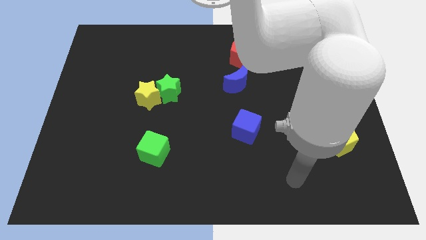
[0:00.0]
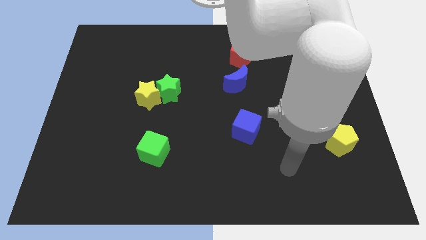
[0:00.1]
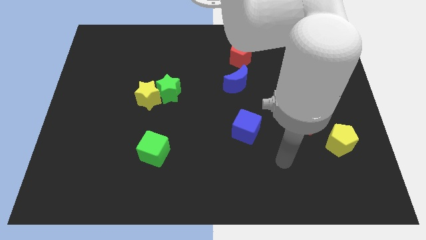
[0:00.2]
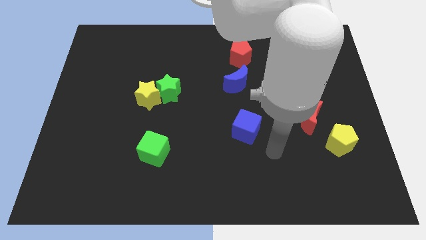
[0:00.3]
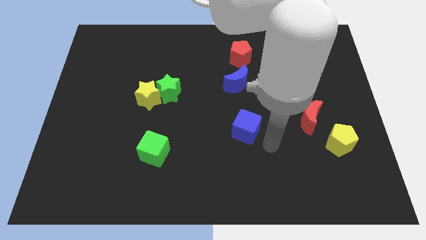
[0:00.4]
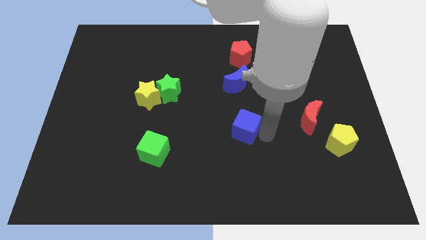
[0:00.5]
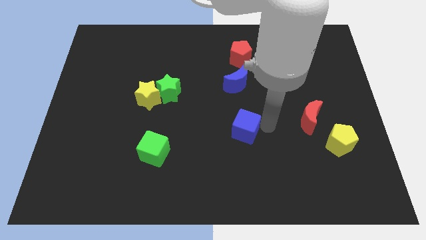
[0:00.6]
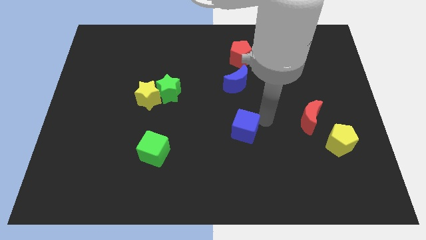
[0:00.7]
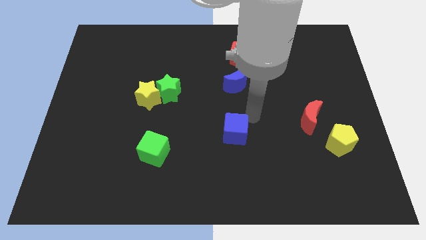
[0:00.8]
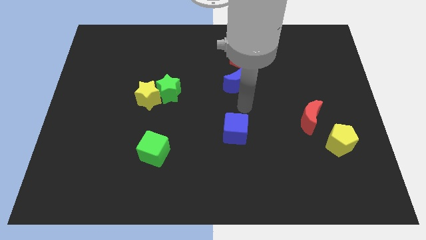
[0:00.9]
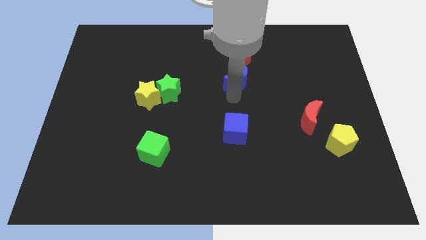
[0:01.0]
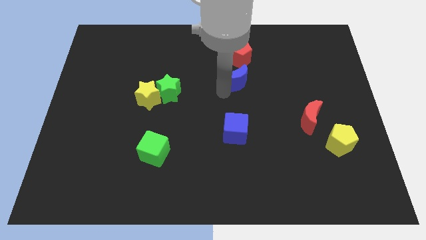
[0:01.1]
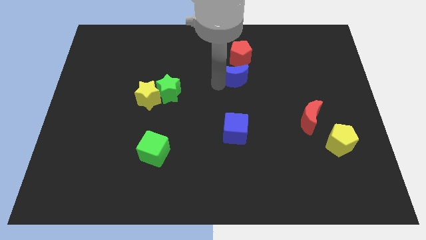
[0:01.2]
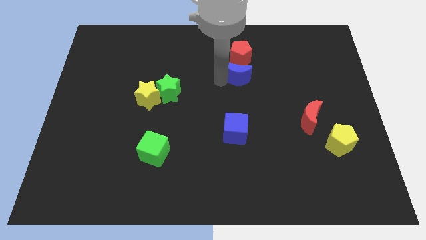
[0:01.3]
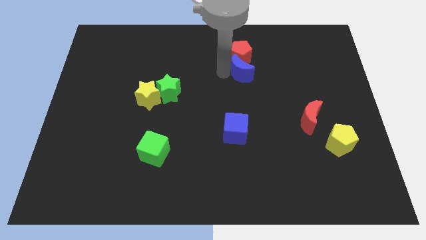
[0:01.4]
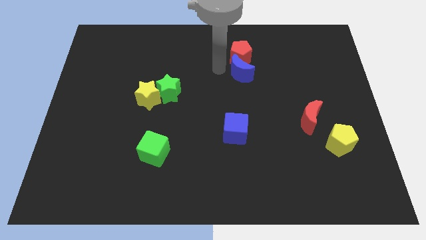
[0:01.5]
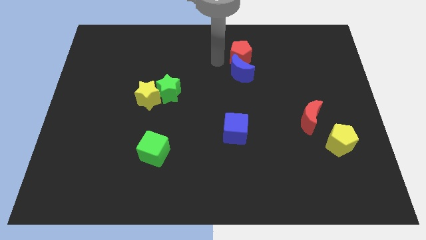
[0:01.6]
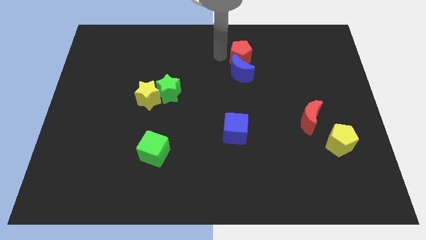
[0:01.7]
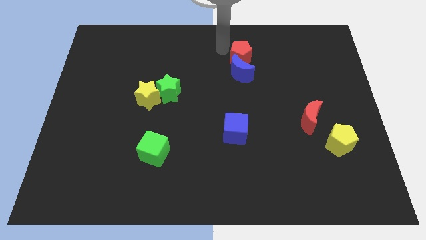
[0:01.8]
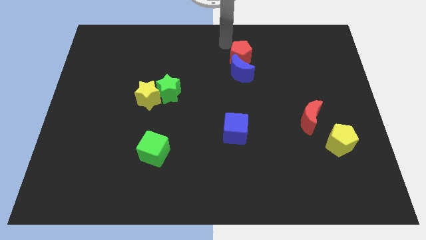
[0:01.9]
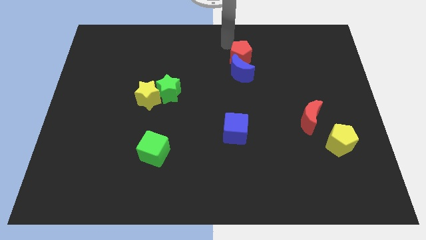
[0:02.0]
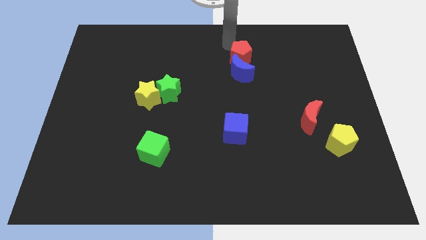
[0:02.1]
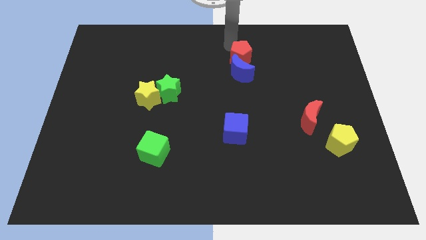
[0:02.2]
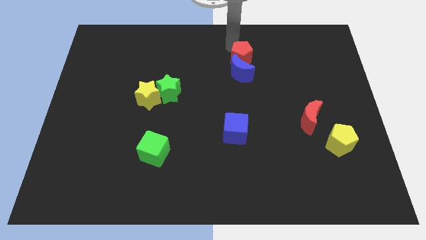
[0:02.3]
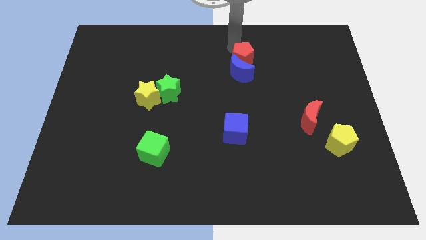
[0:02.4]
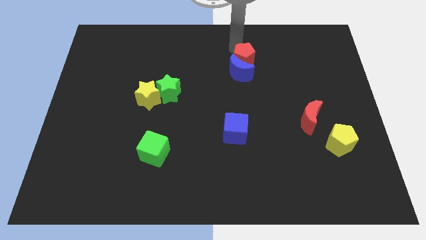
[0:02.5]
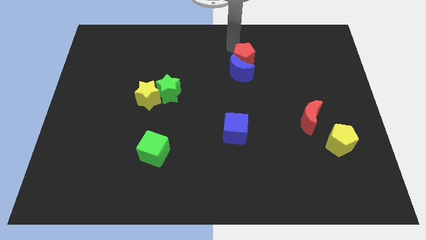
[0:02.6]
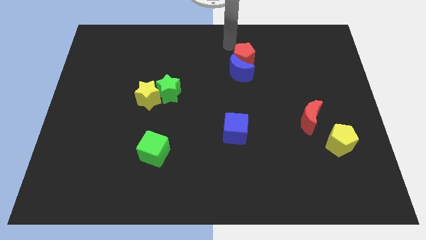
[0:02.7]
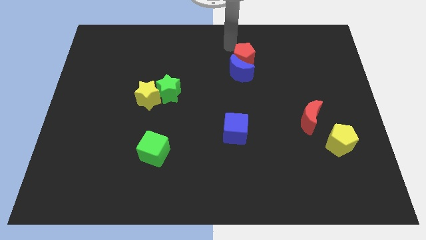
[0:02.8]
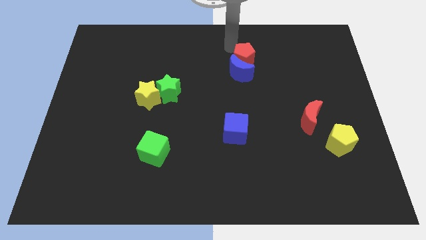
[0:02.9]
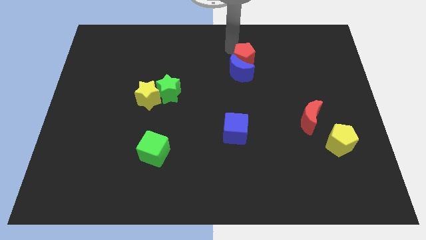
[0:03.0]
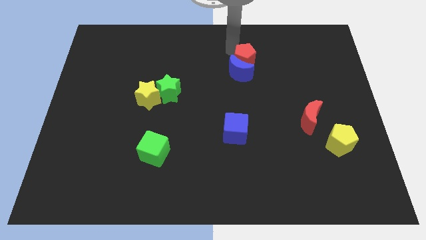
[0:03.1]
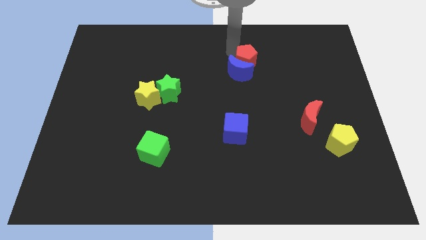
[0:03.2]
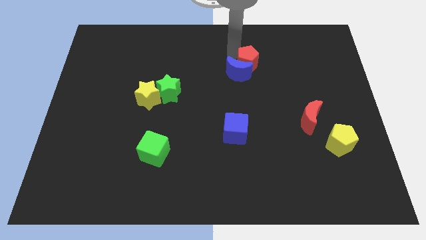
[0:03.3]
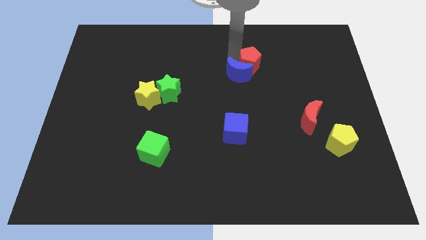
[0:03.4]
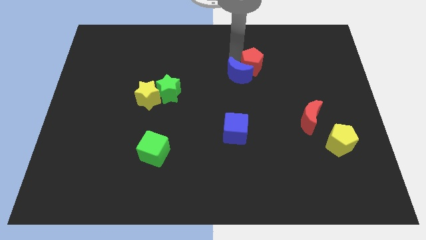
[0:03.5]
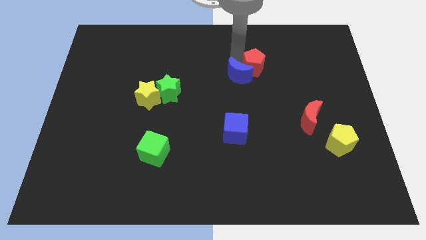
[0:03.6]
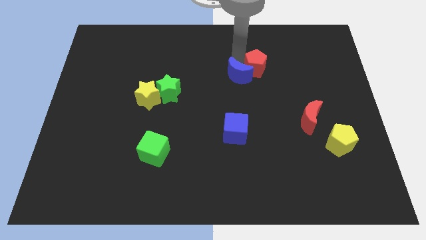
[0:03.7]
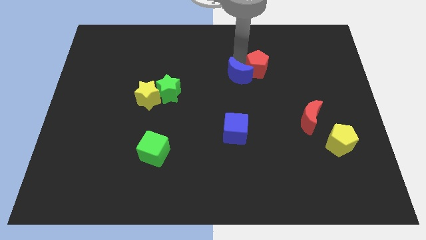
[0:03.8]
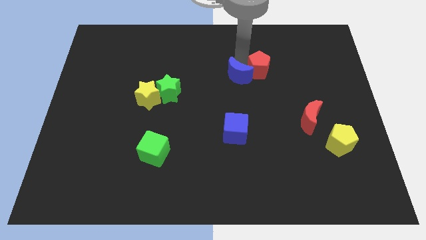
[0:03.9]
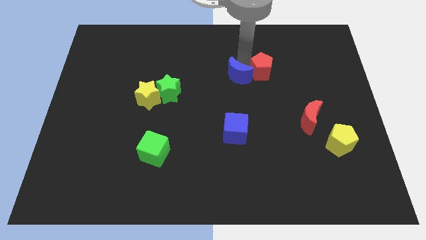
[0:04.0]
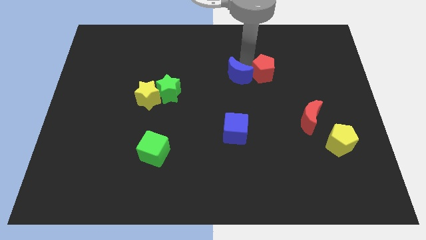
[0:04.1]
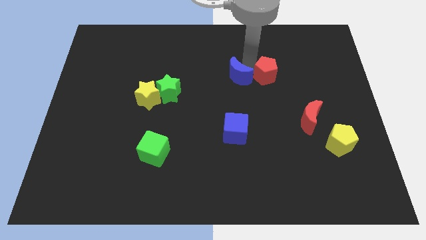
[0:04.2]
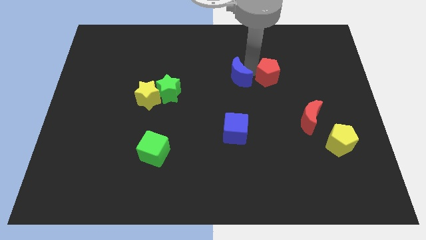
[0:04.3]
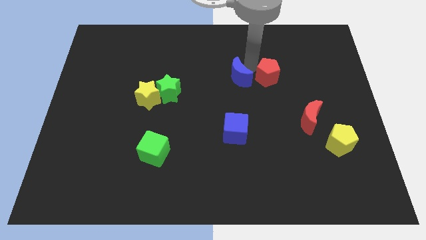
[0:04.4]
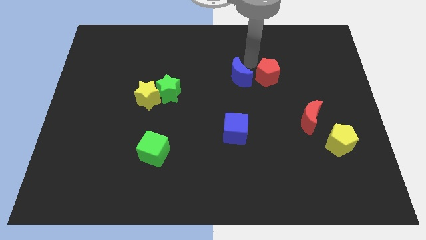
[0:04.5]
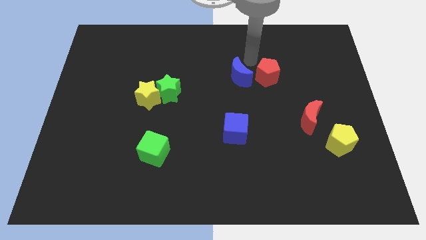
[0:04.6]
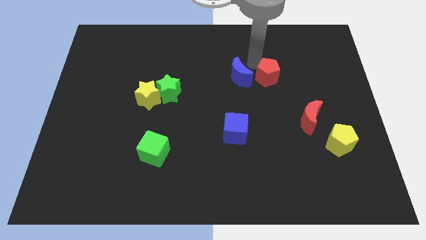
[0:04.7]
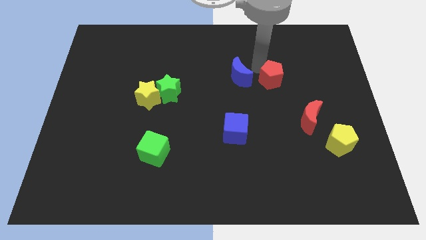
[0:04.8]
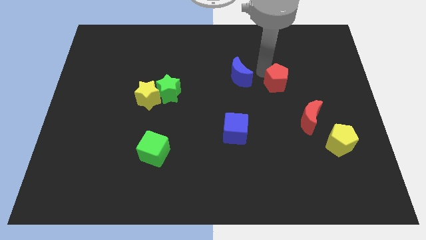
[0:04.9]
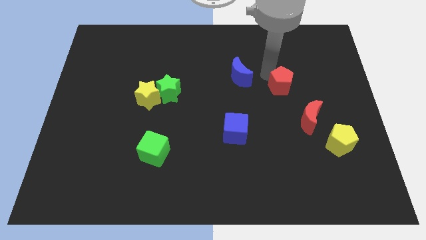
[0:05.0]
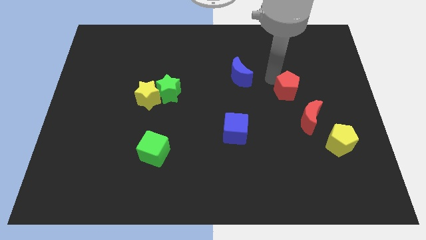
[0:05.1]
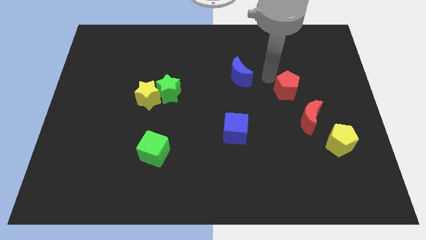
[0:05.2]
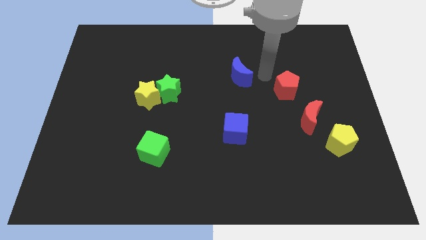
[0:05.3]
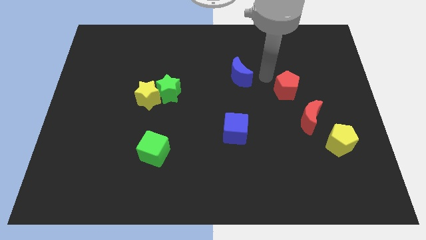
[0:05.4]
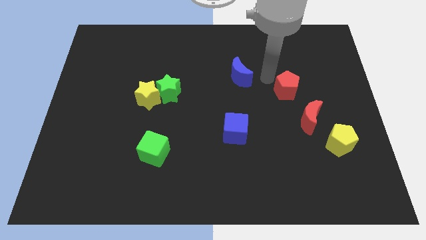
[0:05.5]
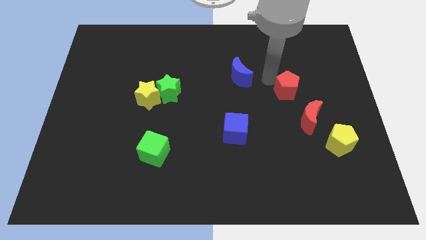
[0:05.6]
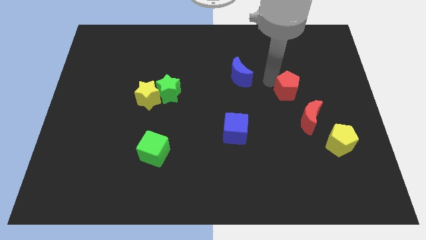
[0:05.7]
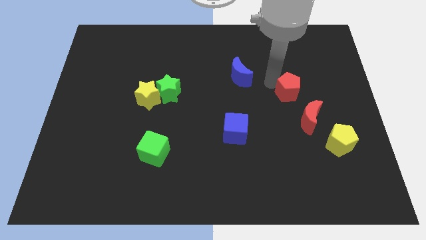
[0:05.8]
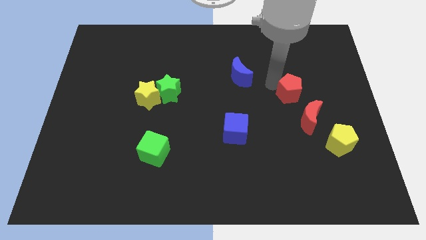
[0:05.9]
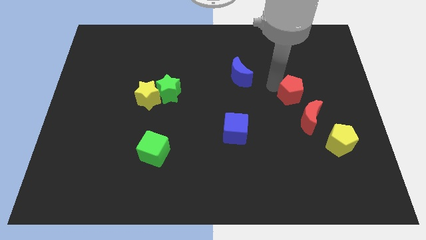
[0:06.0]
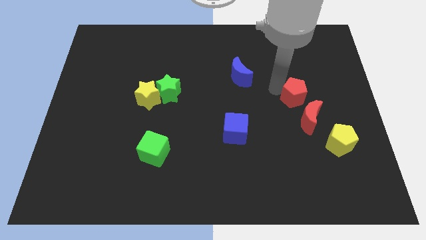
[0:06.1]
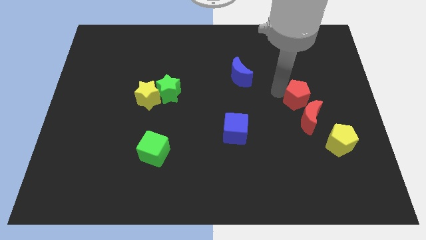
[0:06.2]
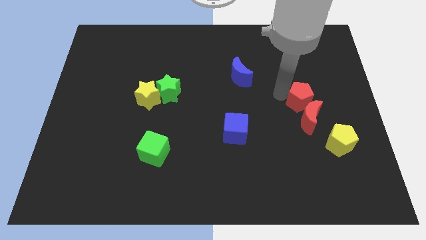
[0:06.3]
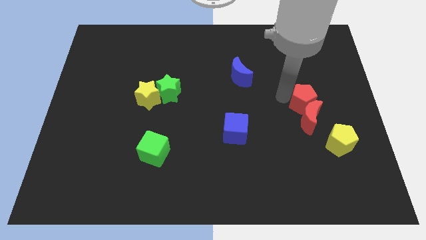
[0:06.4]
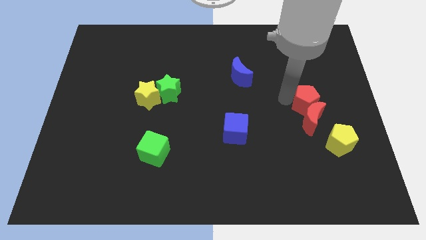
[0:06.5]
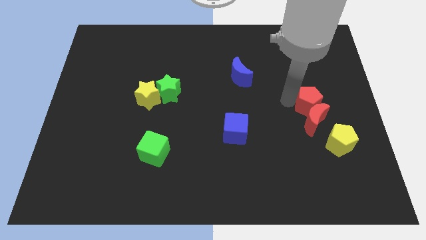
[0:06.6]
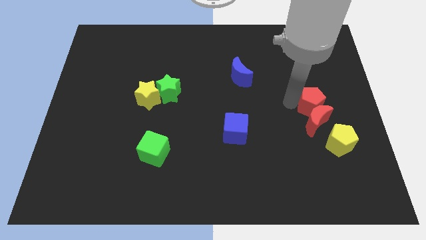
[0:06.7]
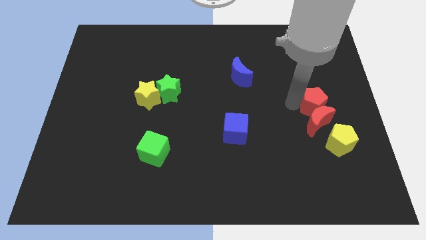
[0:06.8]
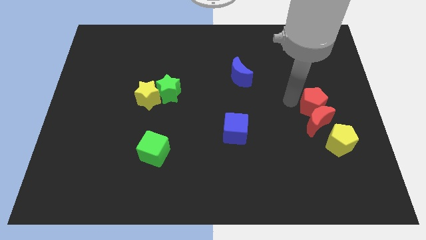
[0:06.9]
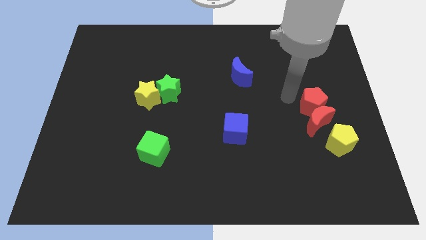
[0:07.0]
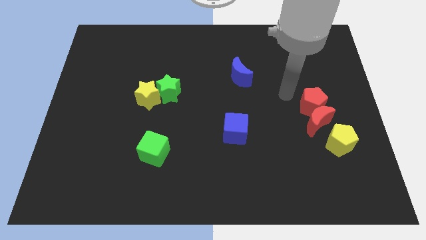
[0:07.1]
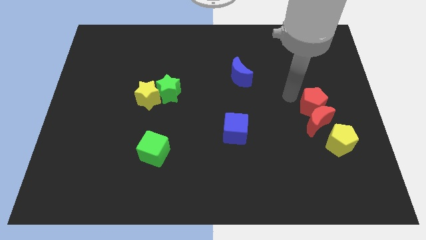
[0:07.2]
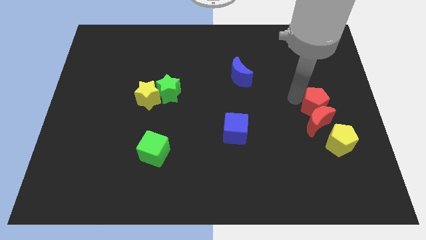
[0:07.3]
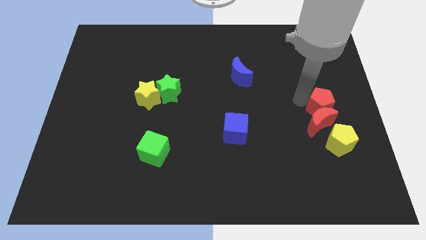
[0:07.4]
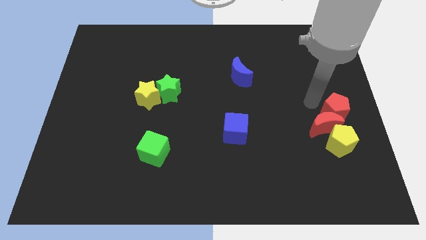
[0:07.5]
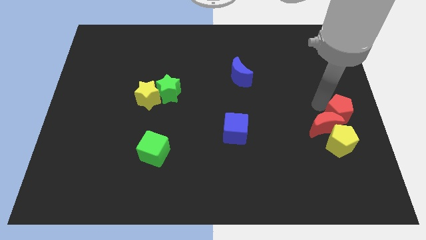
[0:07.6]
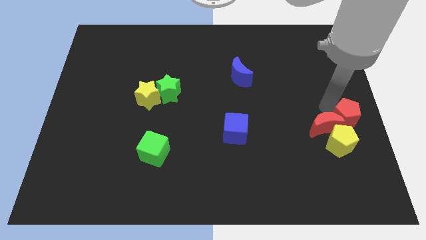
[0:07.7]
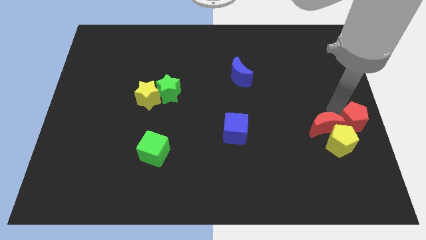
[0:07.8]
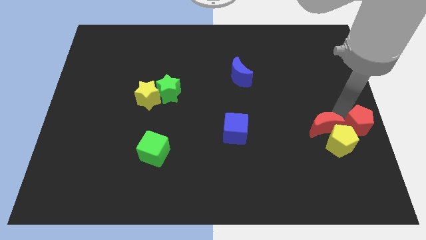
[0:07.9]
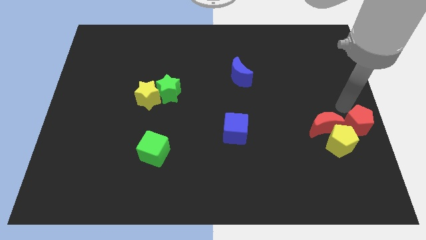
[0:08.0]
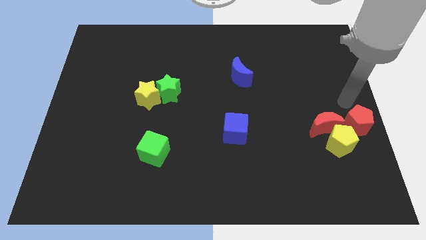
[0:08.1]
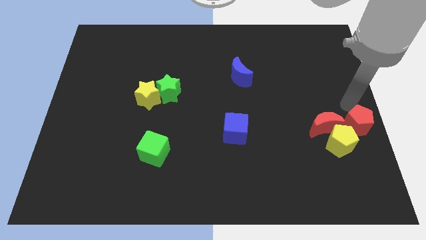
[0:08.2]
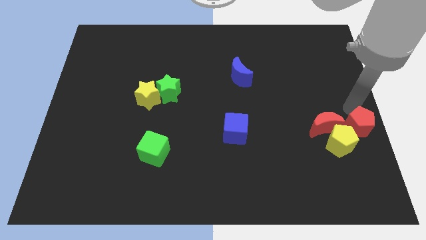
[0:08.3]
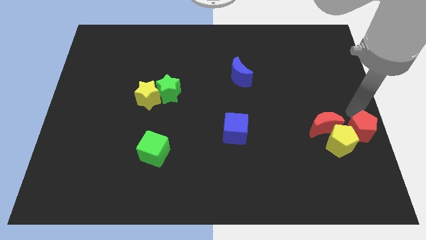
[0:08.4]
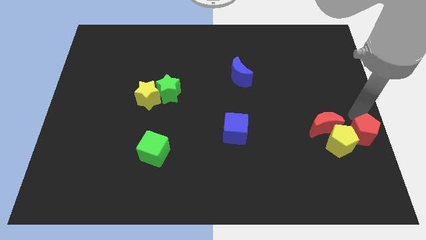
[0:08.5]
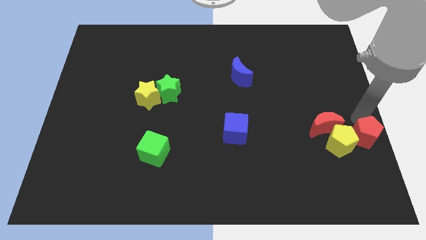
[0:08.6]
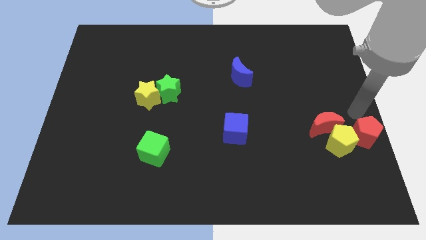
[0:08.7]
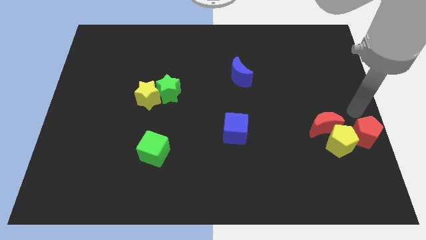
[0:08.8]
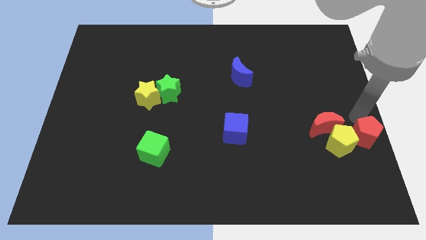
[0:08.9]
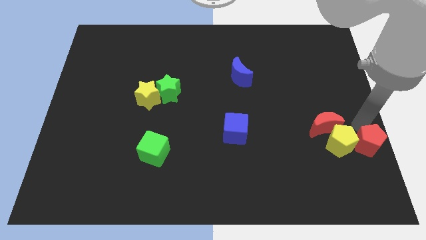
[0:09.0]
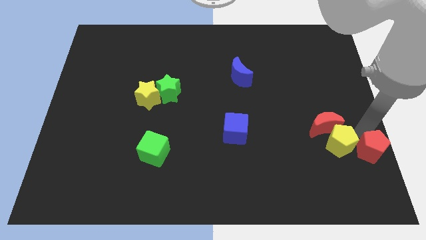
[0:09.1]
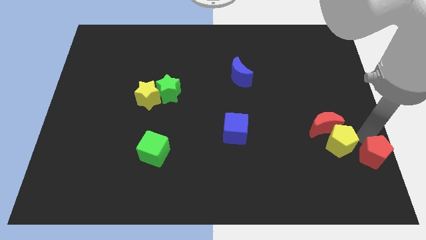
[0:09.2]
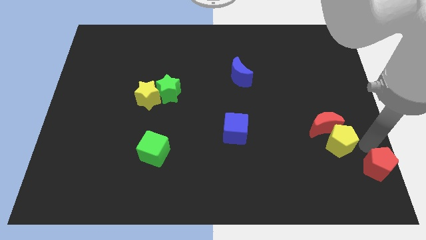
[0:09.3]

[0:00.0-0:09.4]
push the red pentagon to the lower right corner
